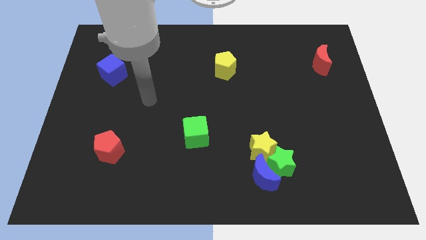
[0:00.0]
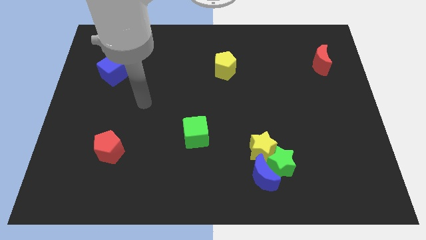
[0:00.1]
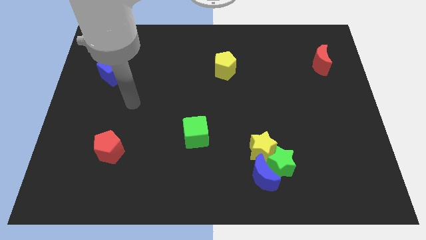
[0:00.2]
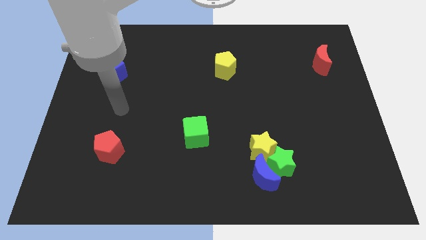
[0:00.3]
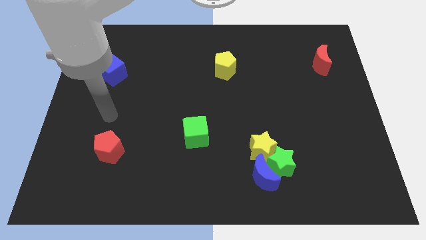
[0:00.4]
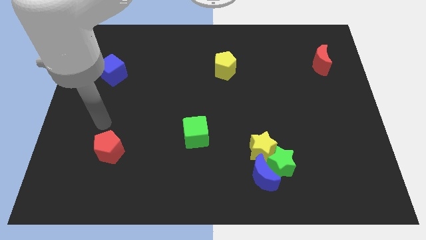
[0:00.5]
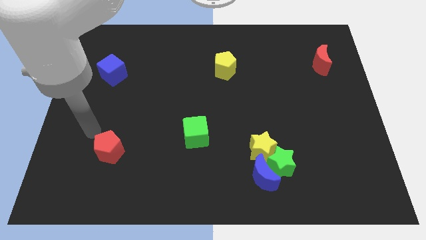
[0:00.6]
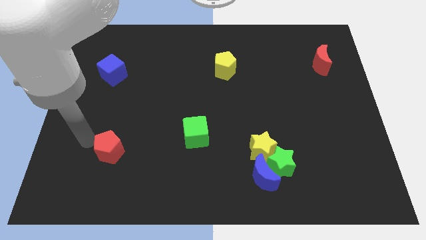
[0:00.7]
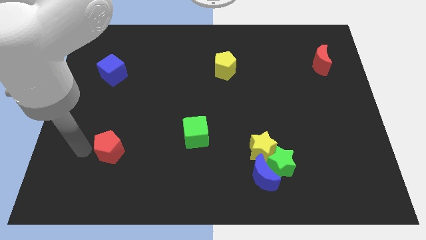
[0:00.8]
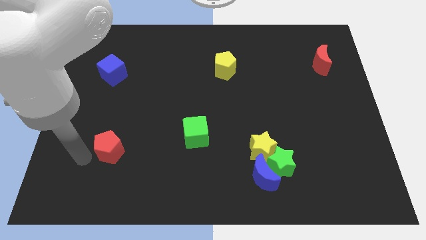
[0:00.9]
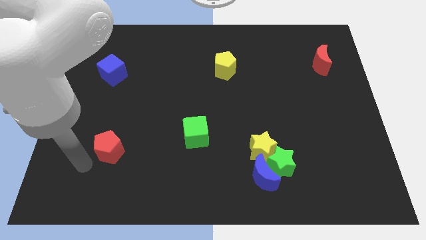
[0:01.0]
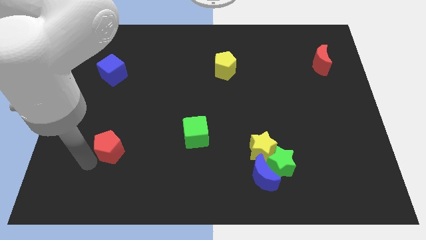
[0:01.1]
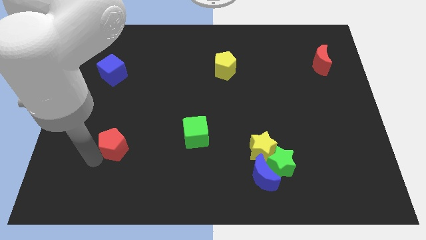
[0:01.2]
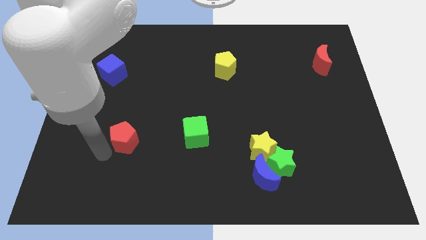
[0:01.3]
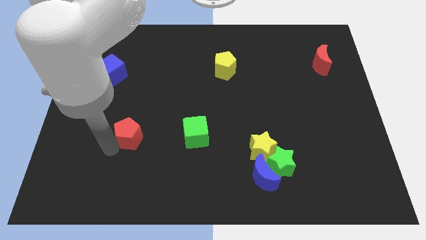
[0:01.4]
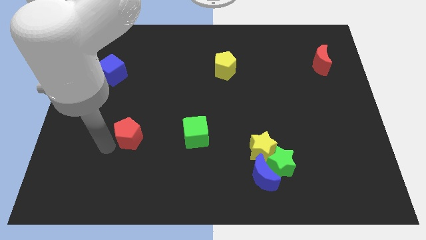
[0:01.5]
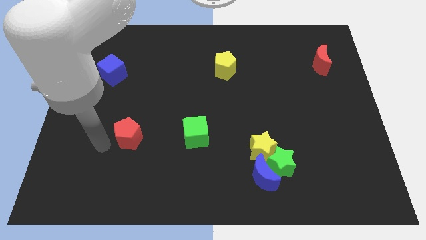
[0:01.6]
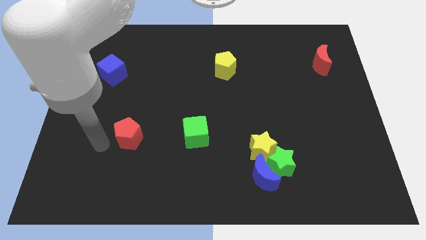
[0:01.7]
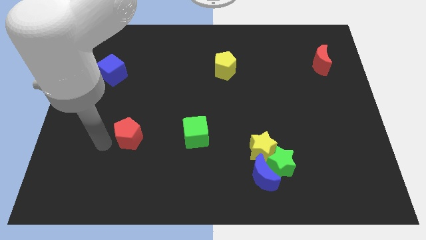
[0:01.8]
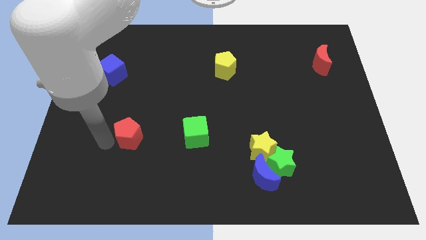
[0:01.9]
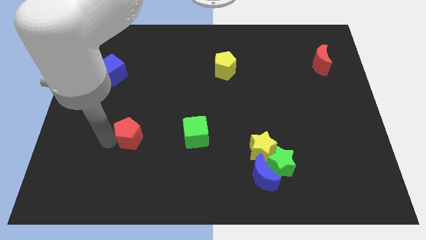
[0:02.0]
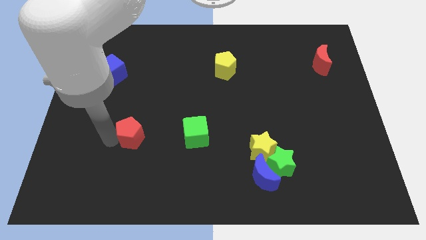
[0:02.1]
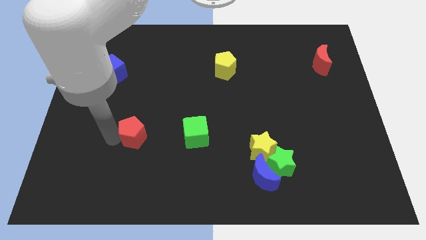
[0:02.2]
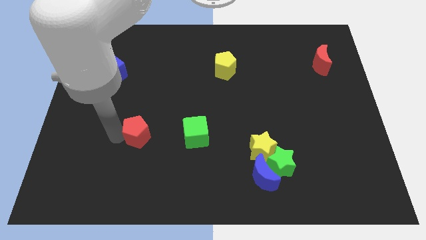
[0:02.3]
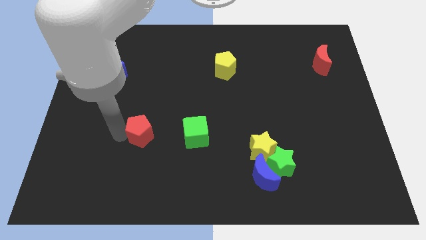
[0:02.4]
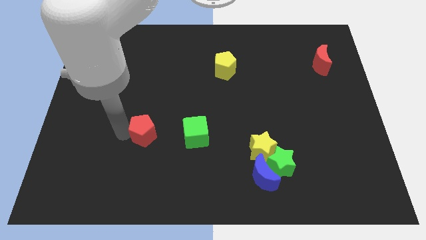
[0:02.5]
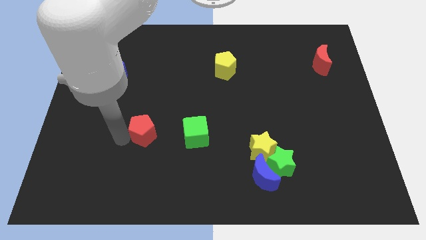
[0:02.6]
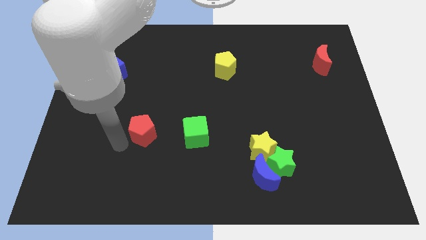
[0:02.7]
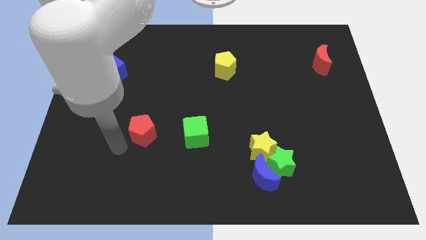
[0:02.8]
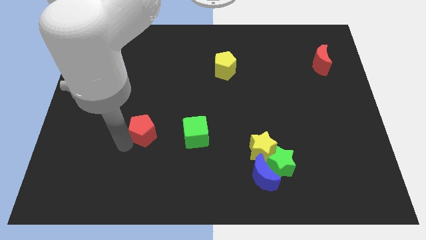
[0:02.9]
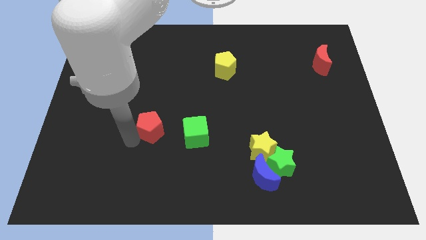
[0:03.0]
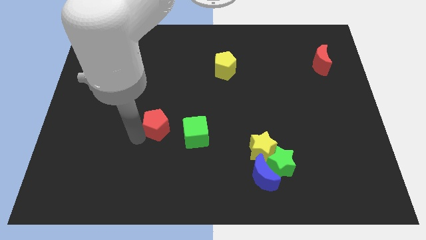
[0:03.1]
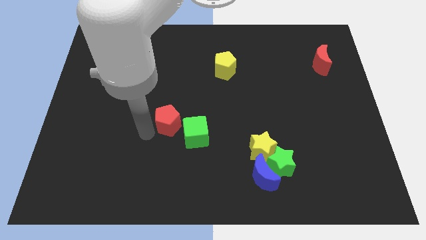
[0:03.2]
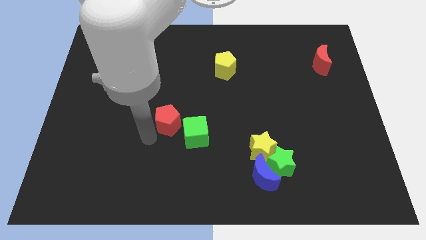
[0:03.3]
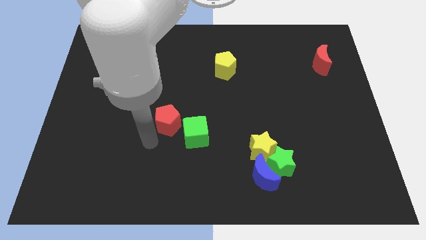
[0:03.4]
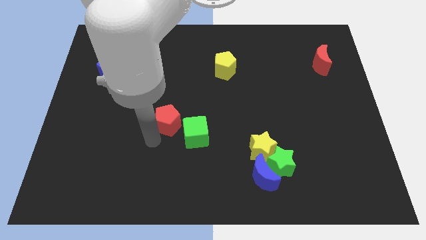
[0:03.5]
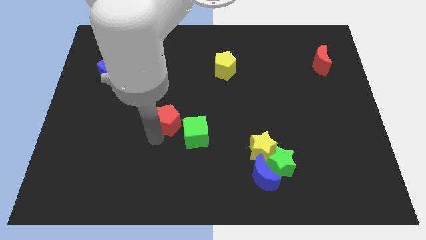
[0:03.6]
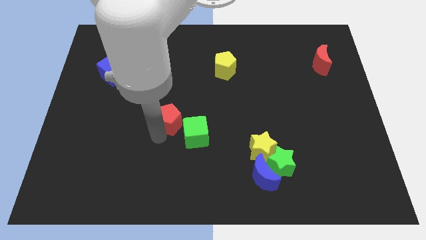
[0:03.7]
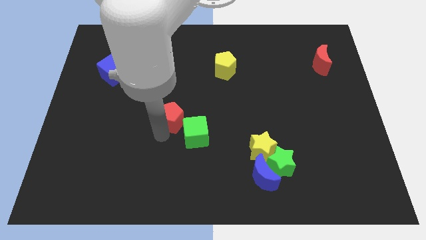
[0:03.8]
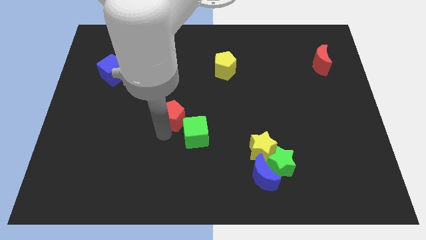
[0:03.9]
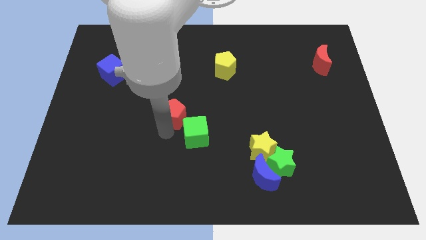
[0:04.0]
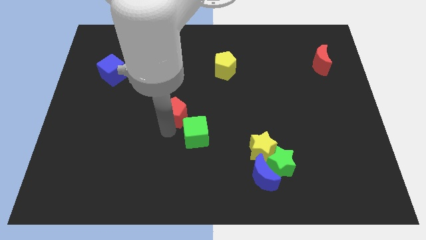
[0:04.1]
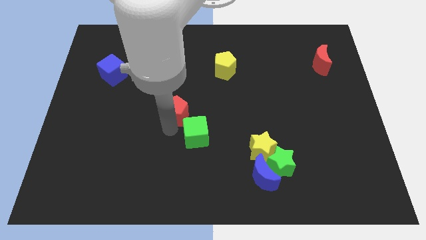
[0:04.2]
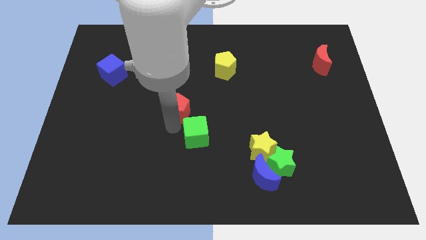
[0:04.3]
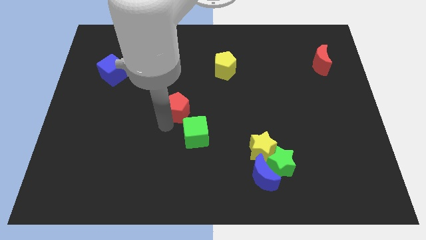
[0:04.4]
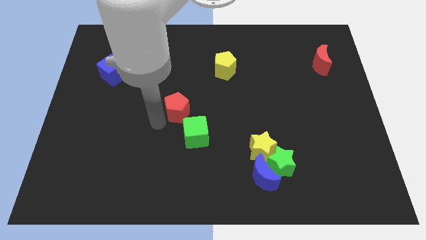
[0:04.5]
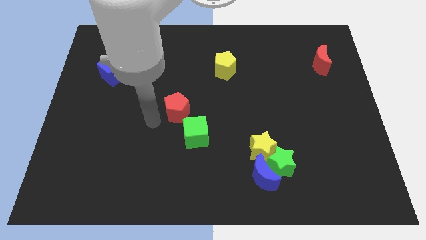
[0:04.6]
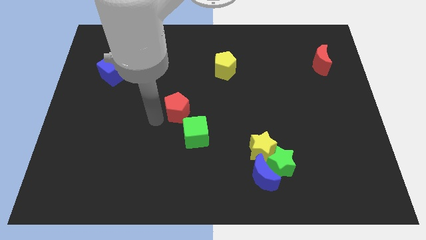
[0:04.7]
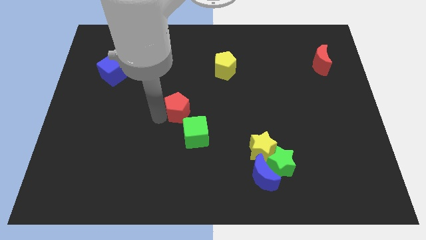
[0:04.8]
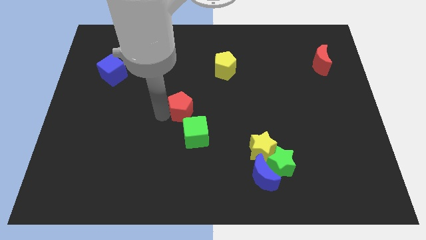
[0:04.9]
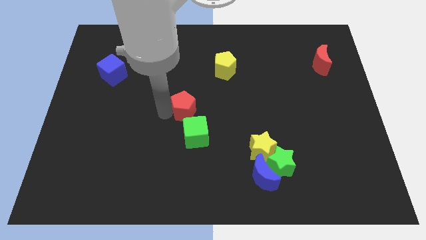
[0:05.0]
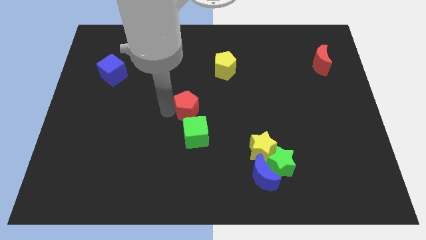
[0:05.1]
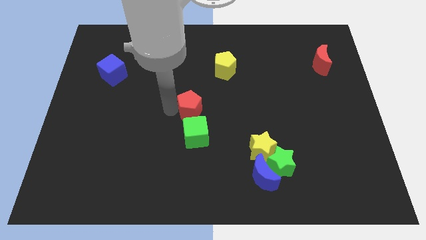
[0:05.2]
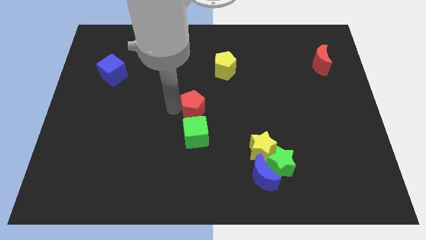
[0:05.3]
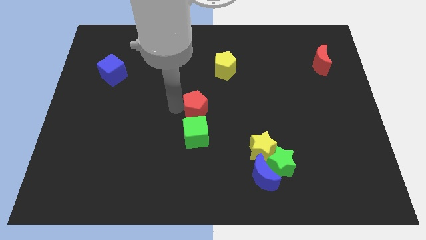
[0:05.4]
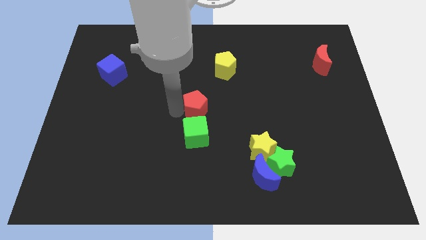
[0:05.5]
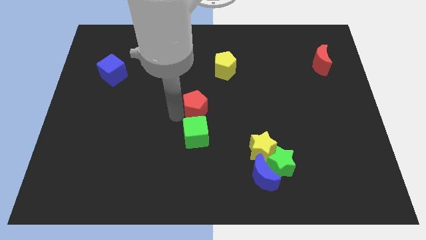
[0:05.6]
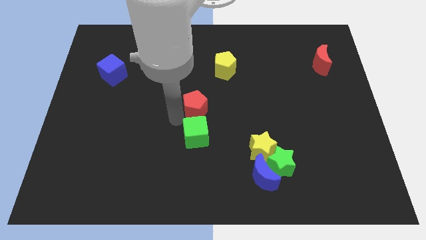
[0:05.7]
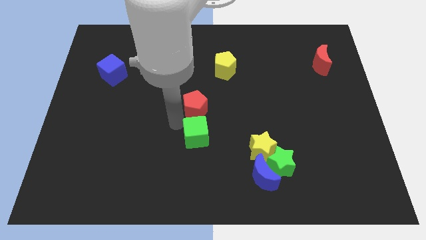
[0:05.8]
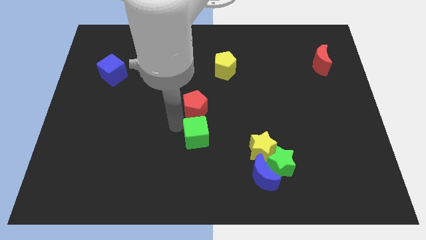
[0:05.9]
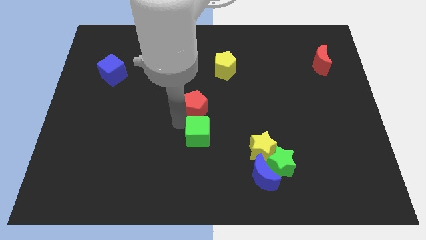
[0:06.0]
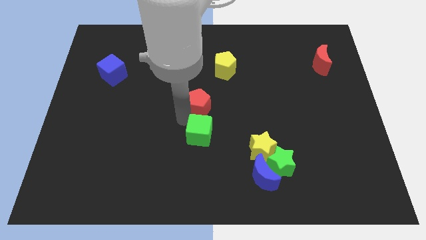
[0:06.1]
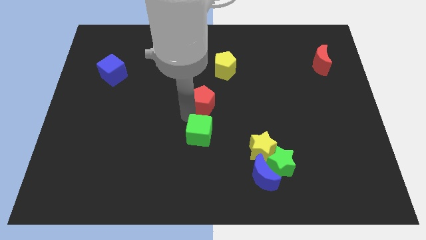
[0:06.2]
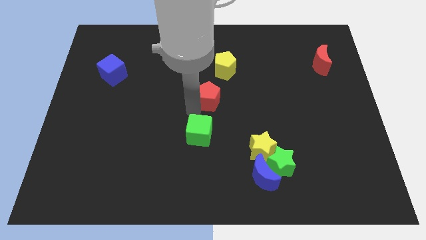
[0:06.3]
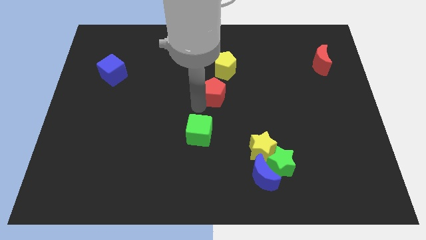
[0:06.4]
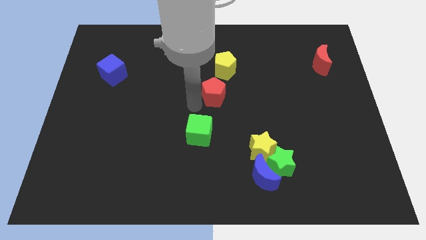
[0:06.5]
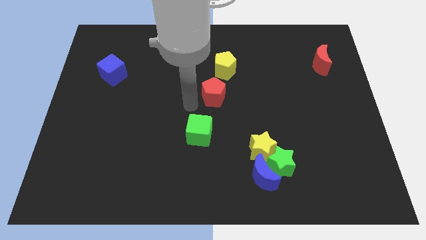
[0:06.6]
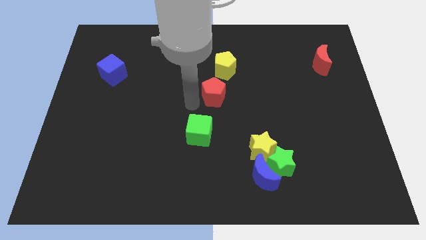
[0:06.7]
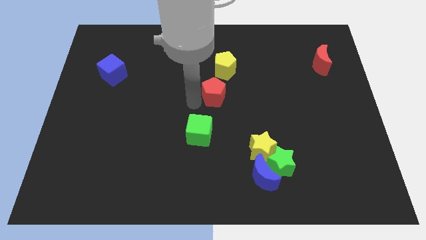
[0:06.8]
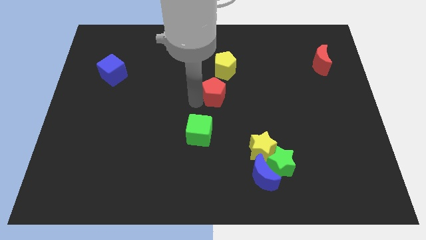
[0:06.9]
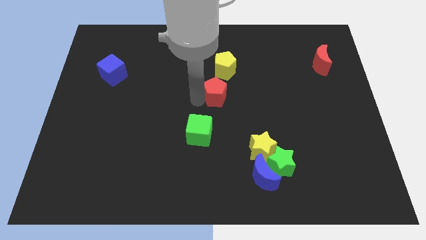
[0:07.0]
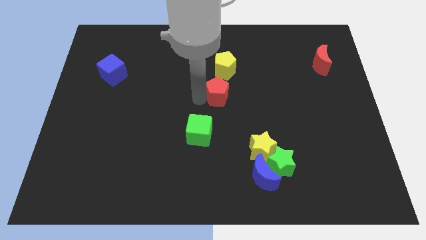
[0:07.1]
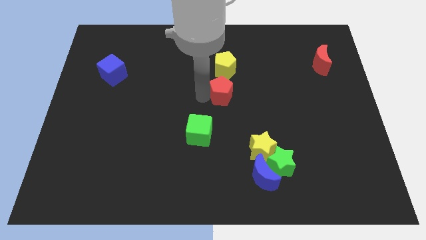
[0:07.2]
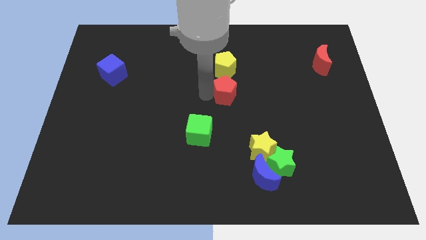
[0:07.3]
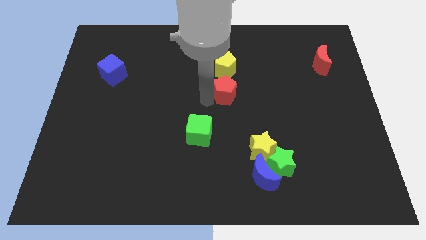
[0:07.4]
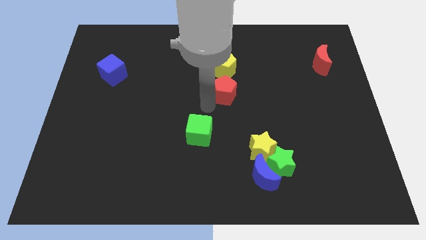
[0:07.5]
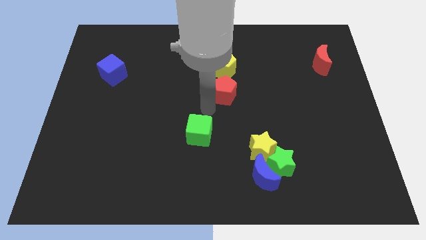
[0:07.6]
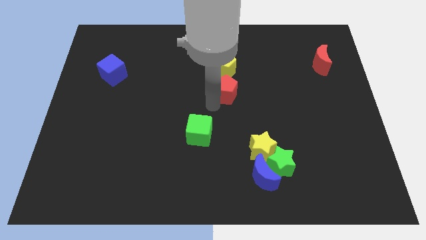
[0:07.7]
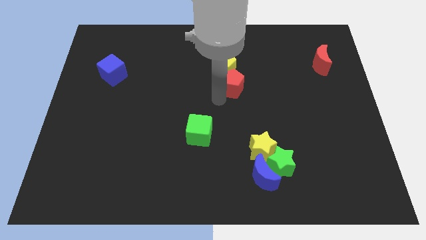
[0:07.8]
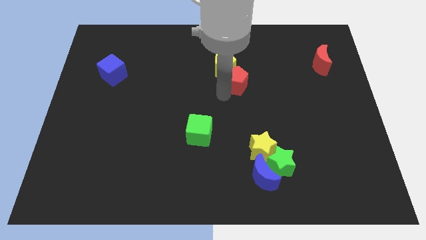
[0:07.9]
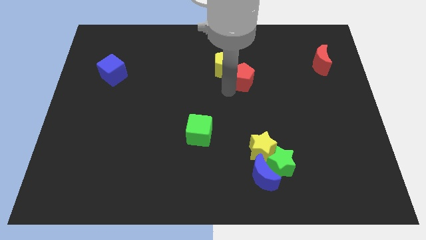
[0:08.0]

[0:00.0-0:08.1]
push the red pentagon just right of the yellow pentagon
